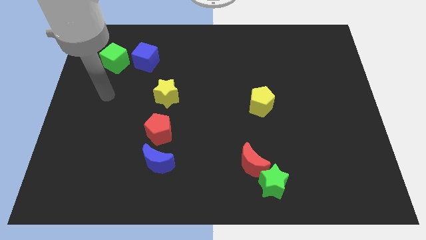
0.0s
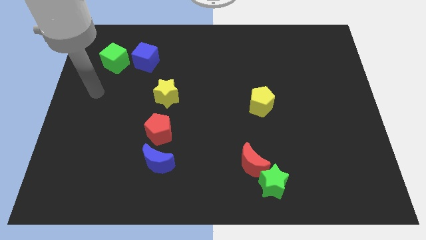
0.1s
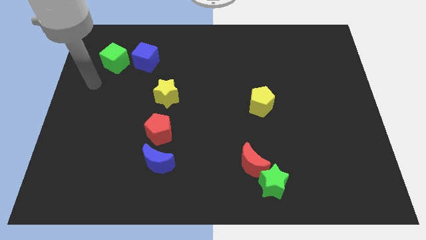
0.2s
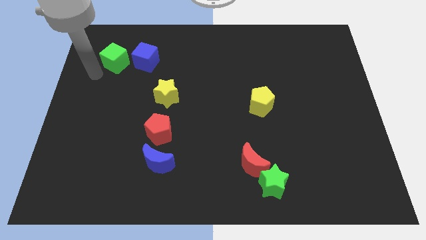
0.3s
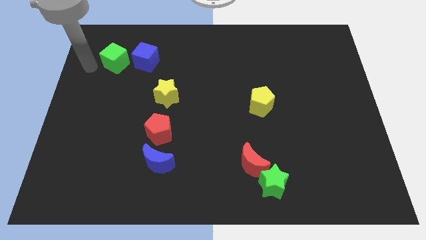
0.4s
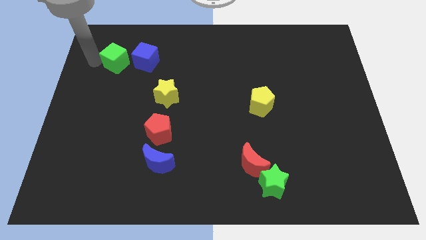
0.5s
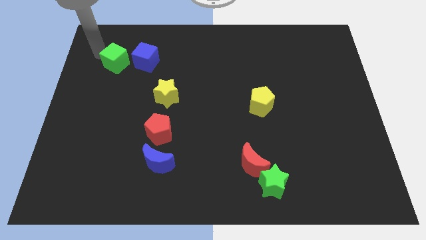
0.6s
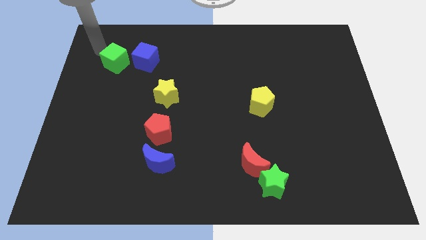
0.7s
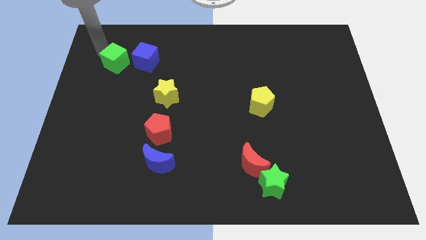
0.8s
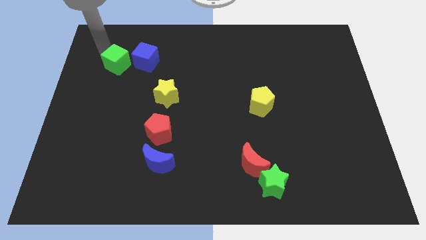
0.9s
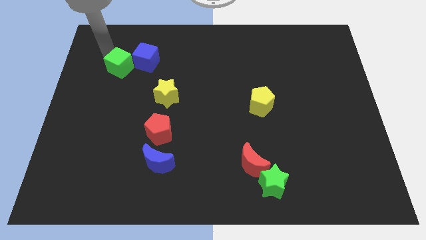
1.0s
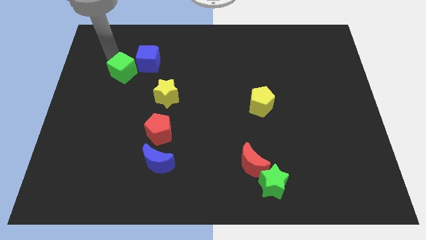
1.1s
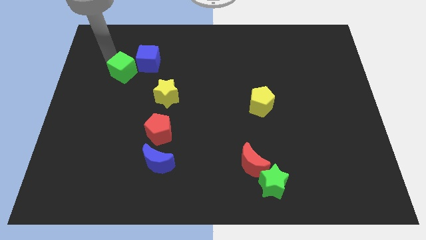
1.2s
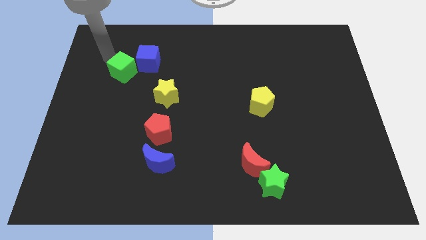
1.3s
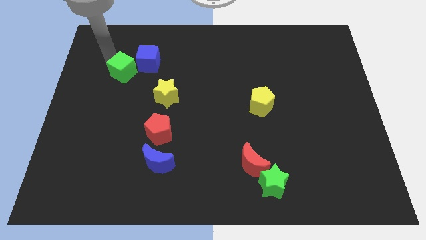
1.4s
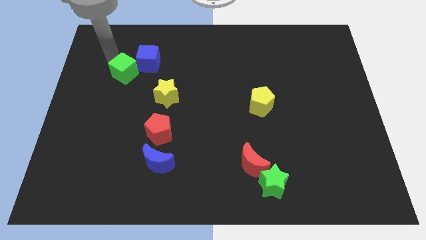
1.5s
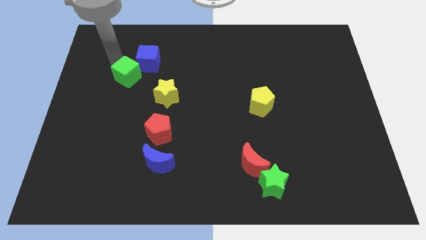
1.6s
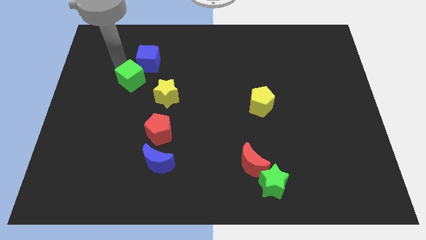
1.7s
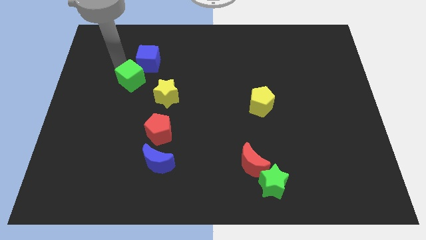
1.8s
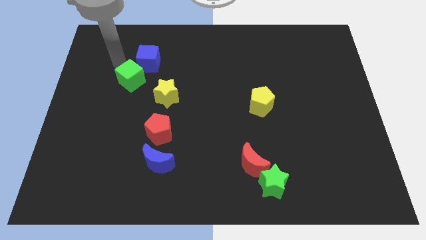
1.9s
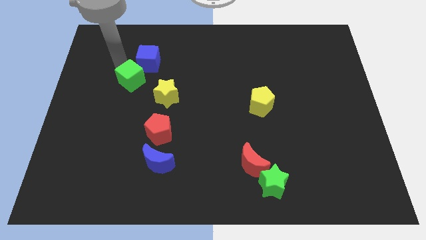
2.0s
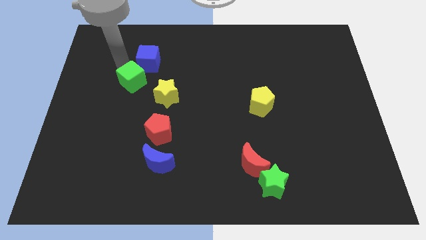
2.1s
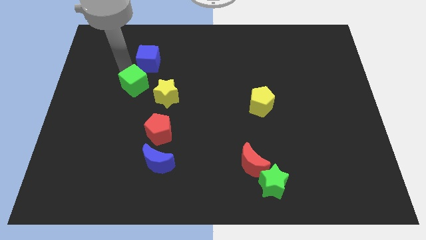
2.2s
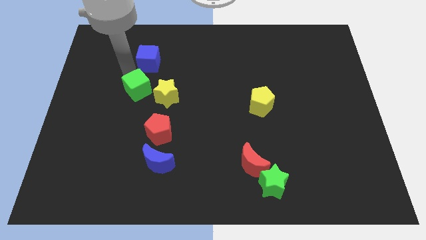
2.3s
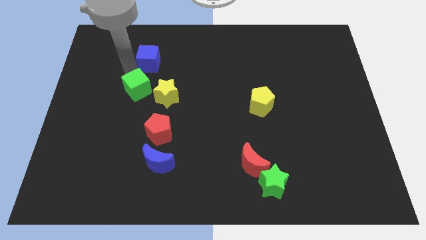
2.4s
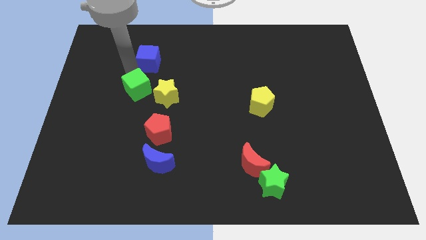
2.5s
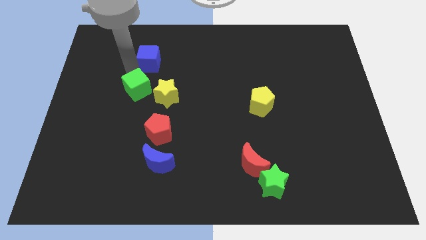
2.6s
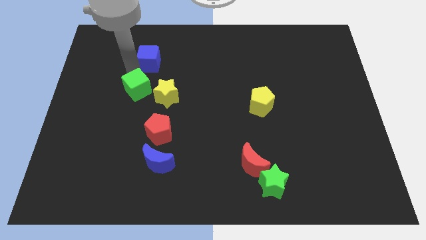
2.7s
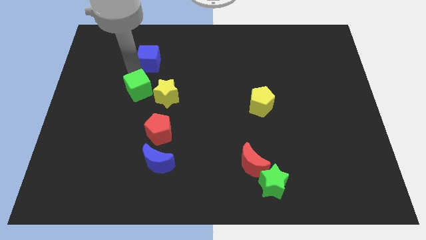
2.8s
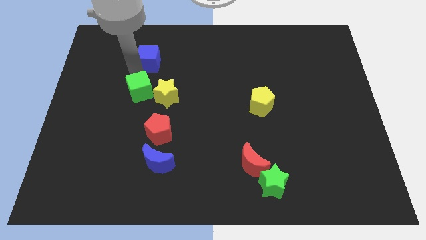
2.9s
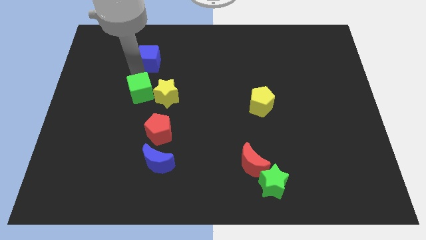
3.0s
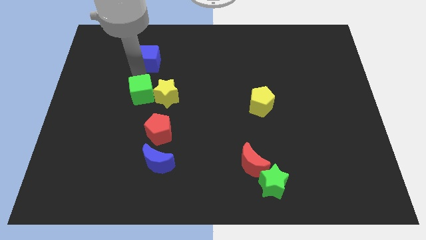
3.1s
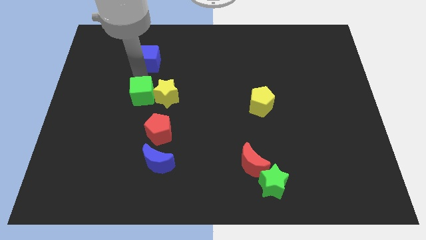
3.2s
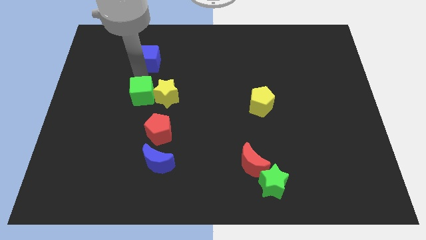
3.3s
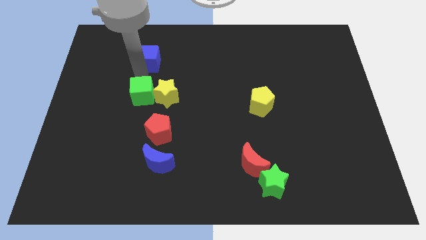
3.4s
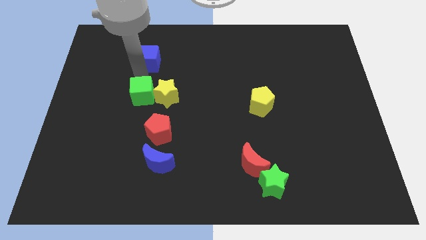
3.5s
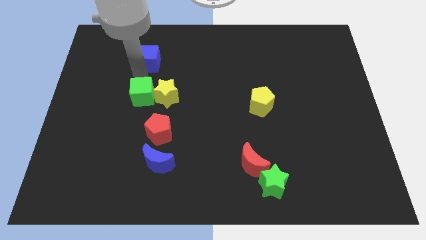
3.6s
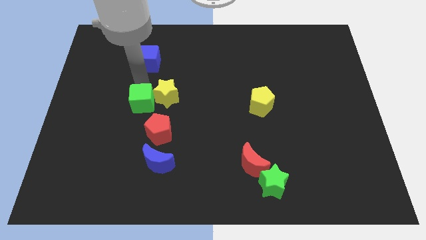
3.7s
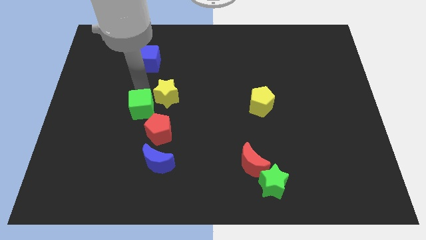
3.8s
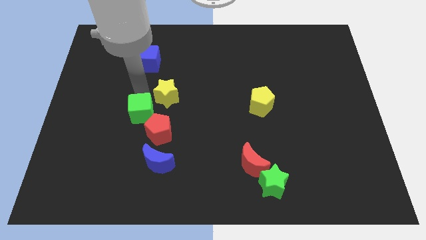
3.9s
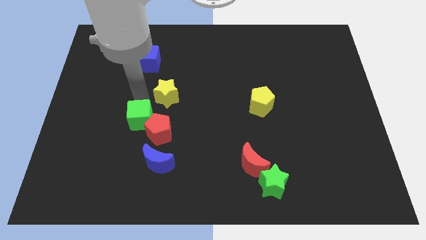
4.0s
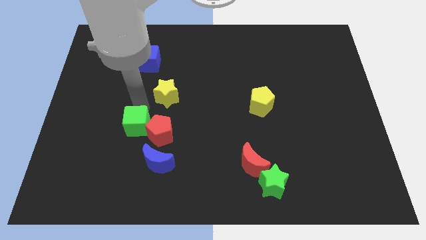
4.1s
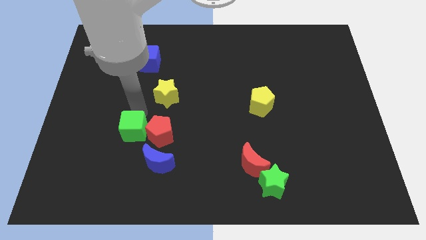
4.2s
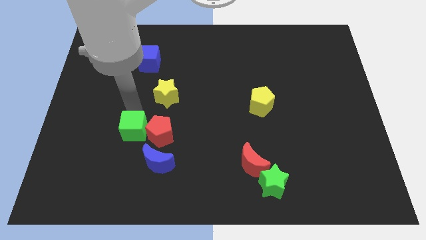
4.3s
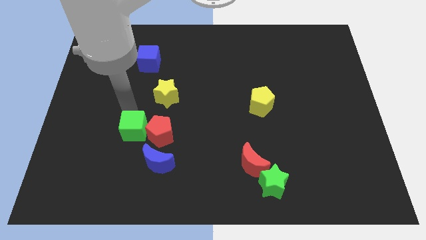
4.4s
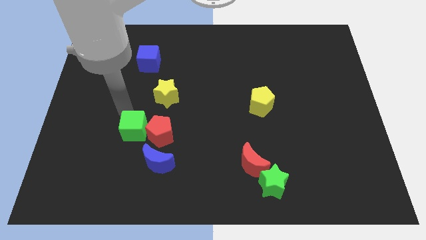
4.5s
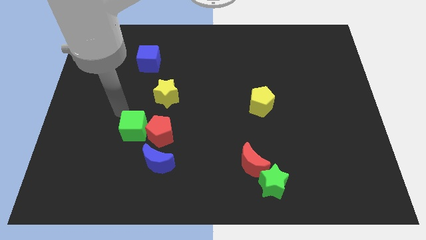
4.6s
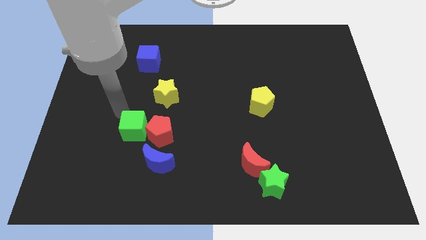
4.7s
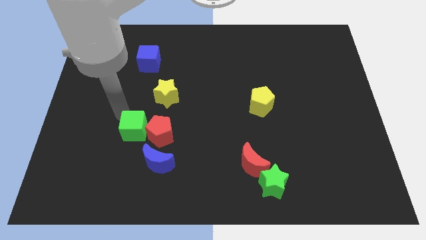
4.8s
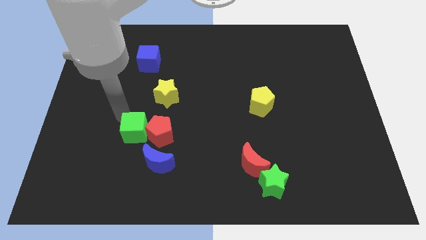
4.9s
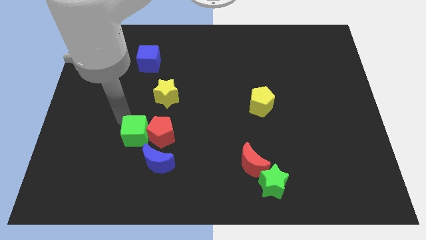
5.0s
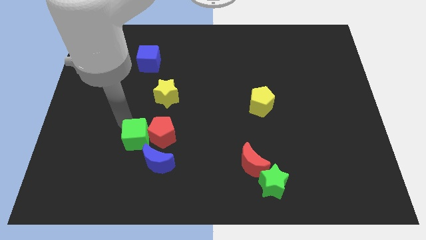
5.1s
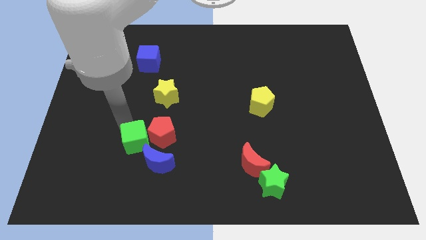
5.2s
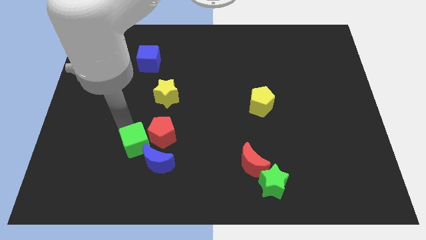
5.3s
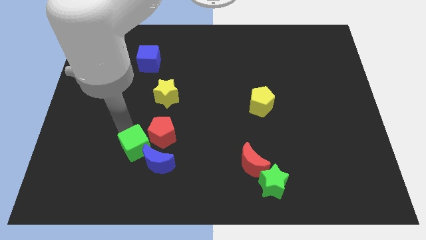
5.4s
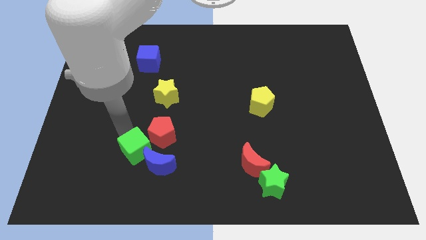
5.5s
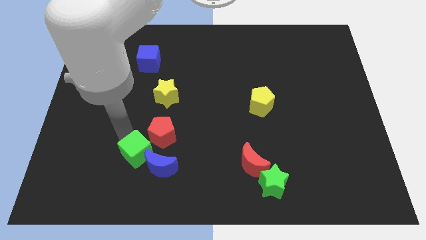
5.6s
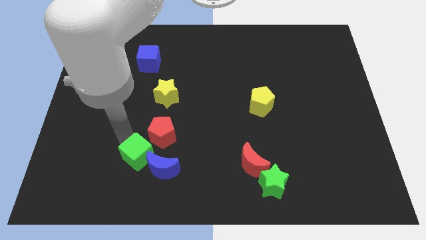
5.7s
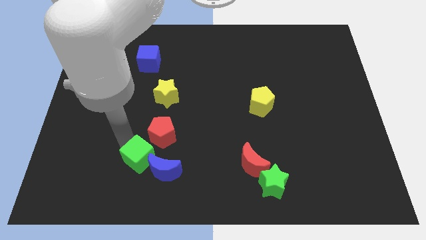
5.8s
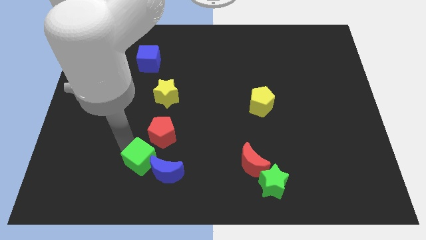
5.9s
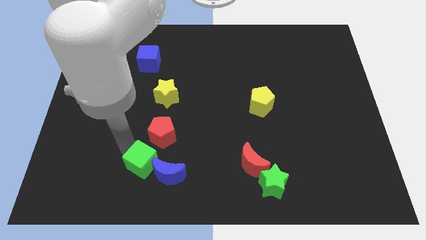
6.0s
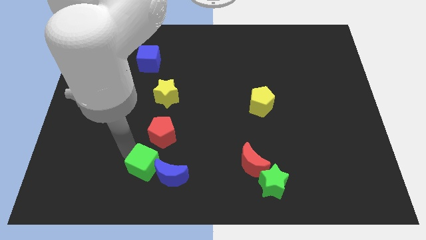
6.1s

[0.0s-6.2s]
put the green cube close to the blue moon

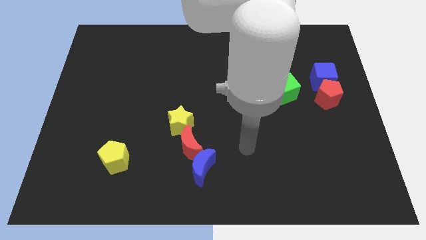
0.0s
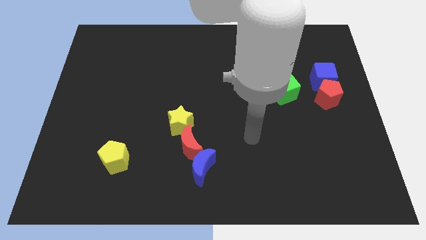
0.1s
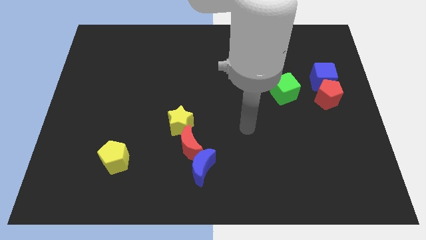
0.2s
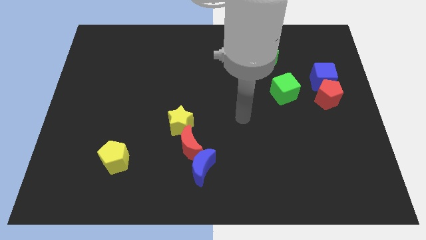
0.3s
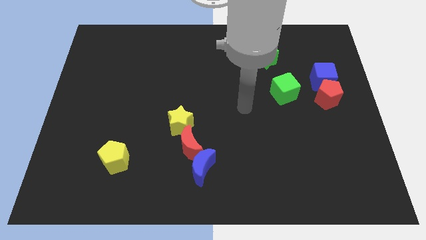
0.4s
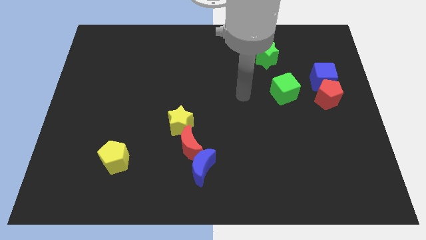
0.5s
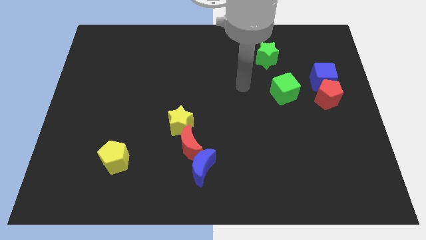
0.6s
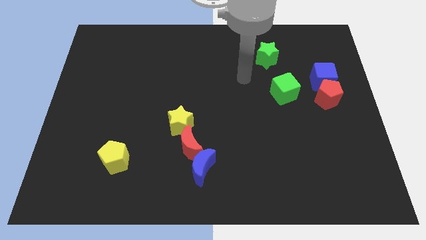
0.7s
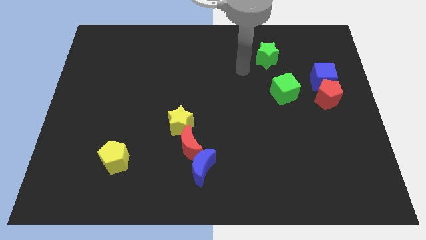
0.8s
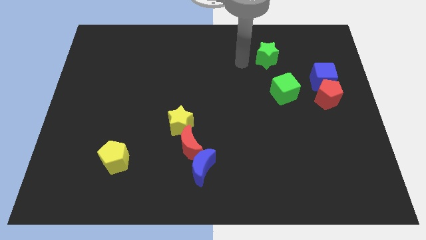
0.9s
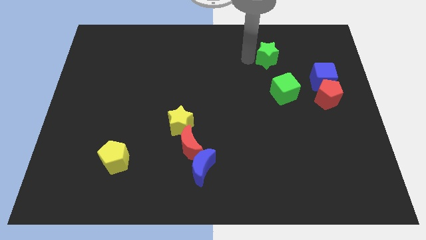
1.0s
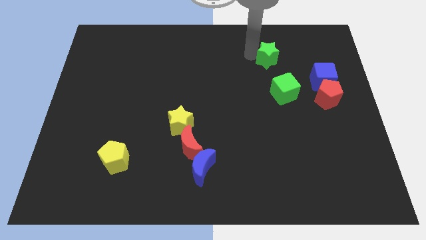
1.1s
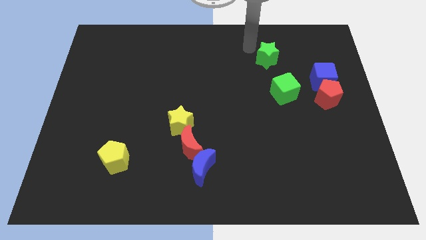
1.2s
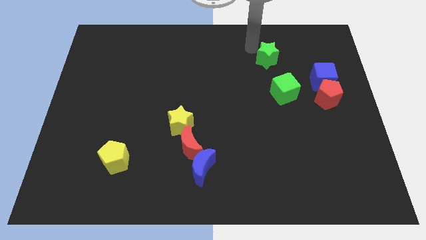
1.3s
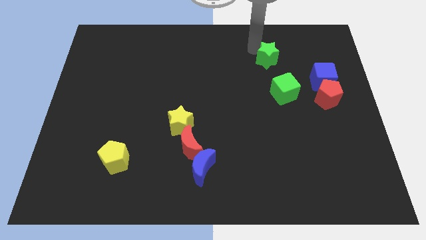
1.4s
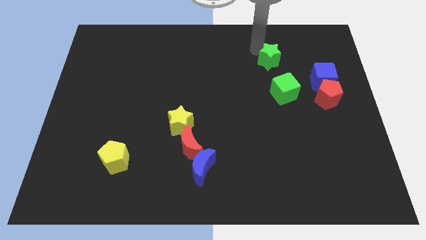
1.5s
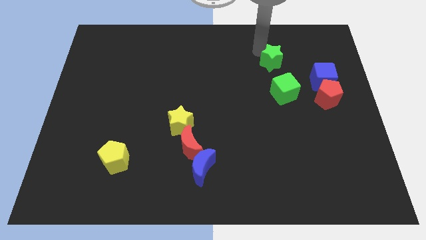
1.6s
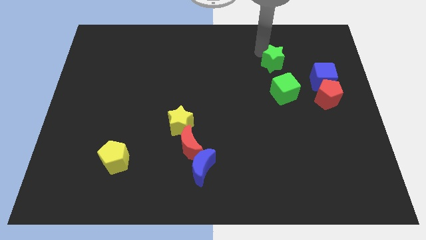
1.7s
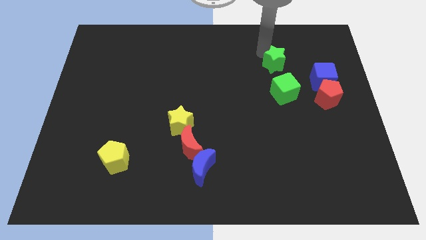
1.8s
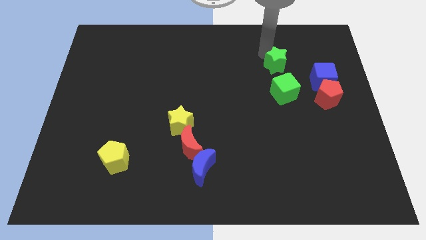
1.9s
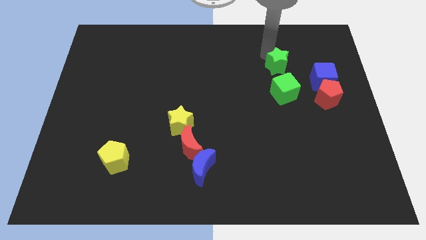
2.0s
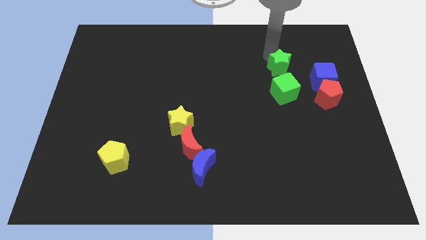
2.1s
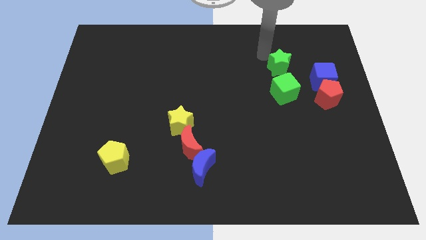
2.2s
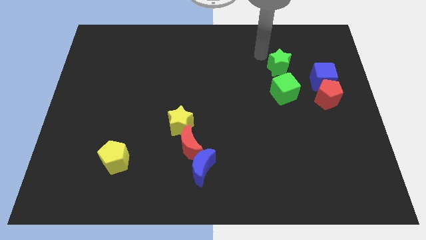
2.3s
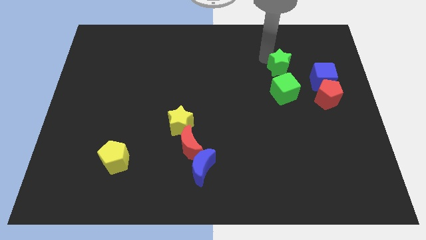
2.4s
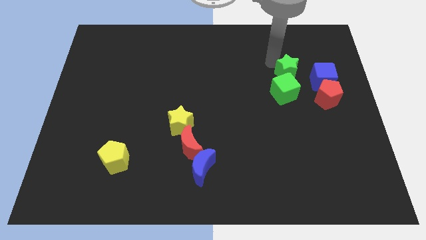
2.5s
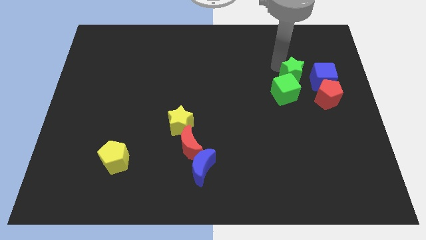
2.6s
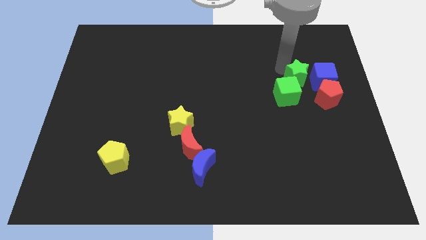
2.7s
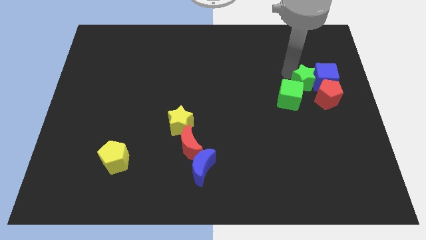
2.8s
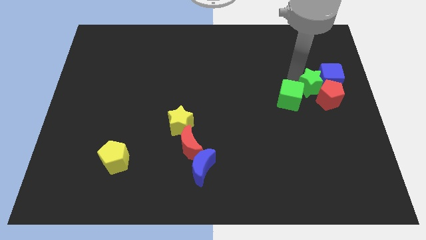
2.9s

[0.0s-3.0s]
move the green star close to the red pentagon
